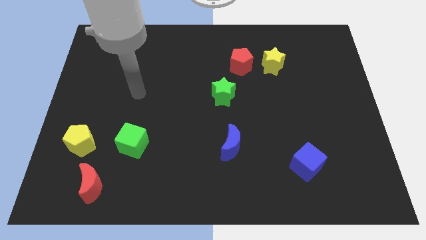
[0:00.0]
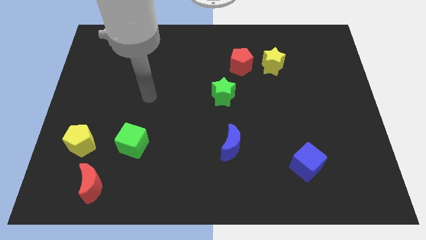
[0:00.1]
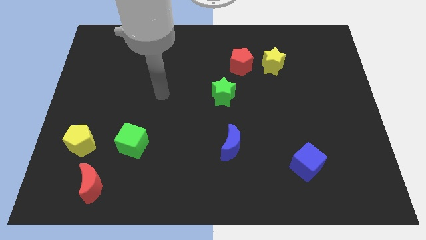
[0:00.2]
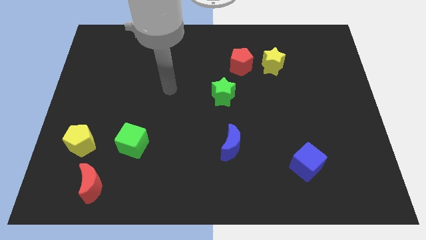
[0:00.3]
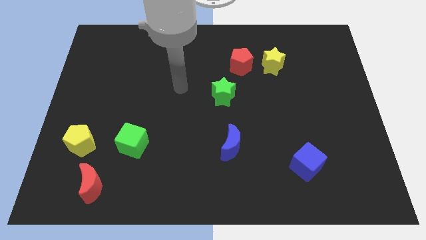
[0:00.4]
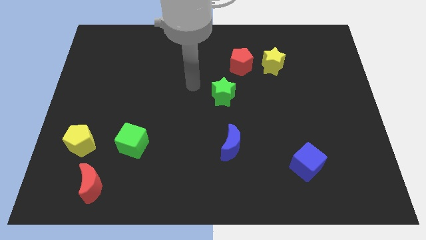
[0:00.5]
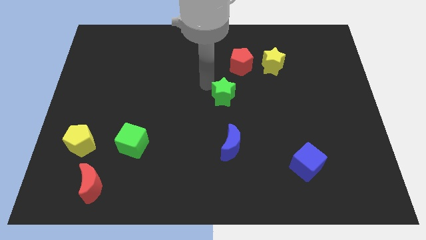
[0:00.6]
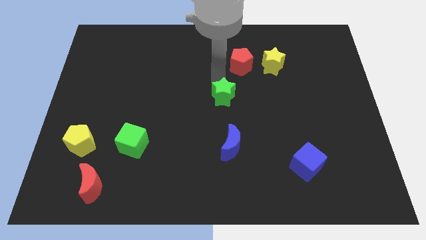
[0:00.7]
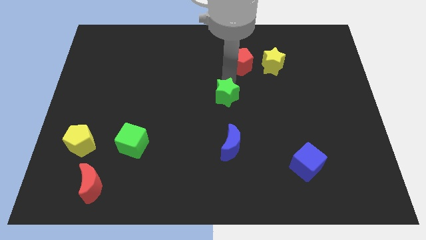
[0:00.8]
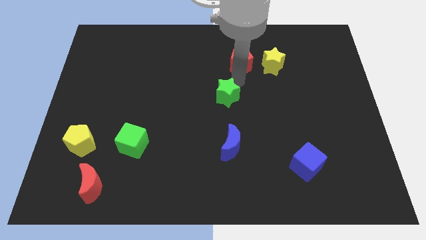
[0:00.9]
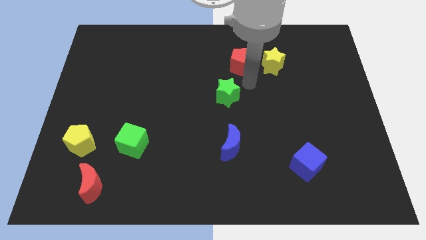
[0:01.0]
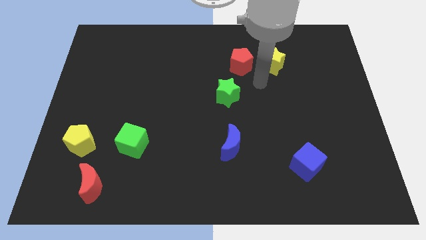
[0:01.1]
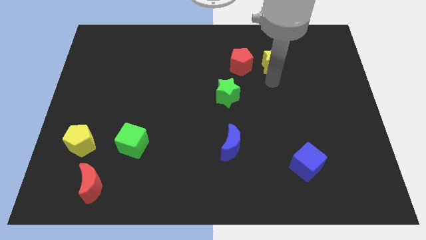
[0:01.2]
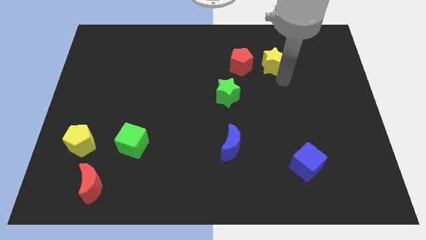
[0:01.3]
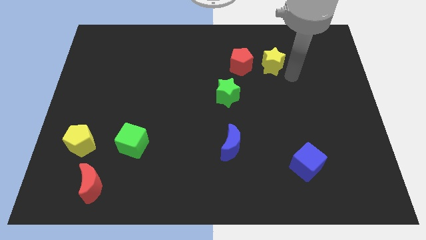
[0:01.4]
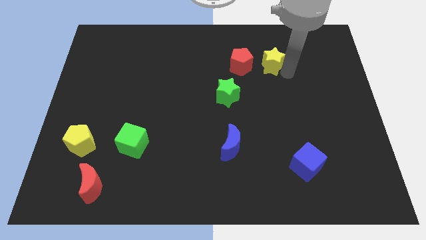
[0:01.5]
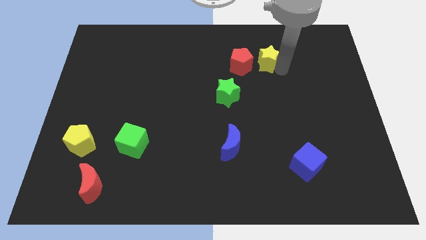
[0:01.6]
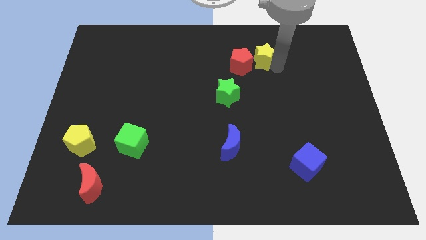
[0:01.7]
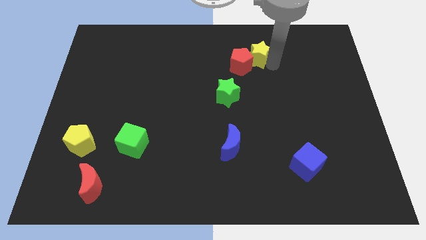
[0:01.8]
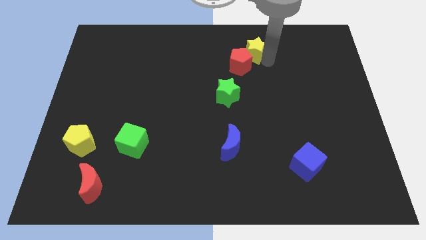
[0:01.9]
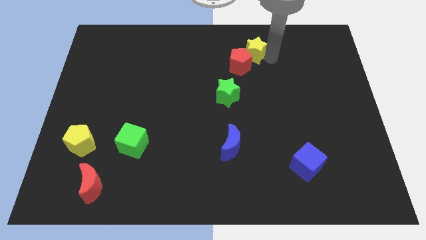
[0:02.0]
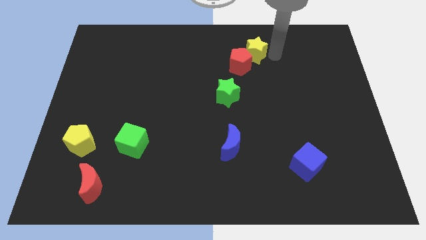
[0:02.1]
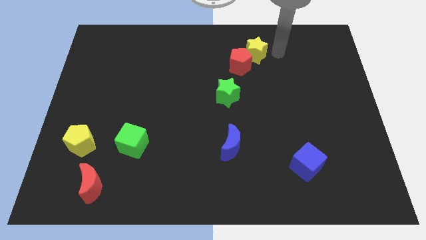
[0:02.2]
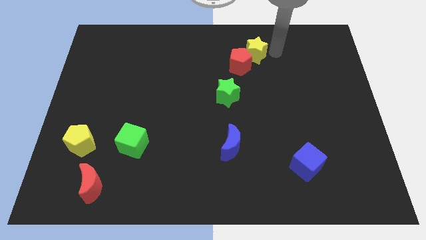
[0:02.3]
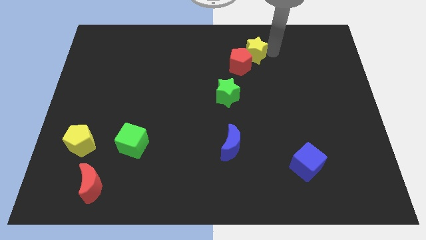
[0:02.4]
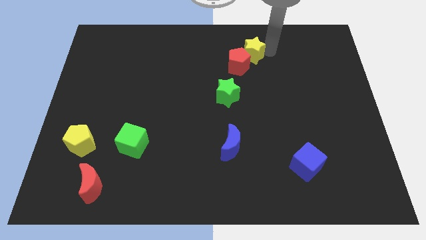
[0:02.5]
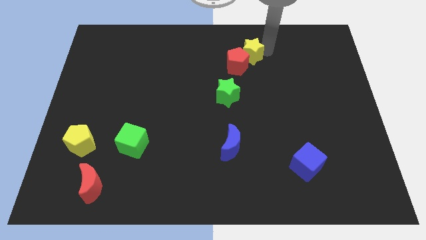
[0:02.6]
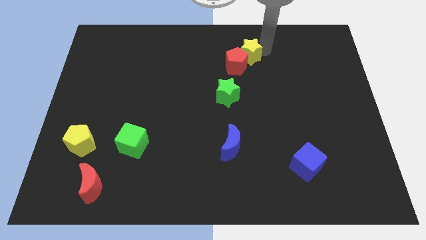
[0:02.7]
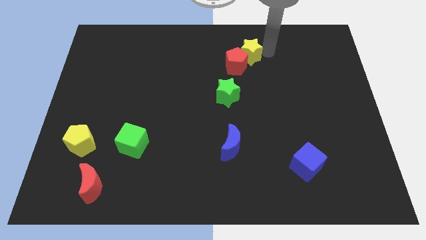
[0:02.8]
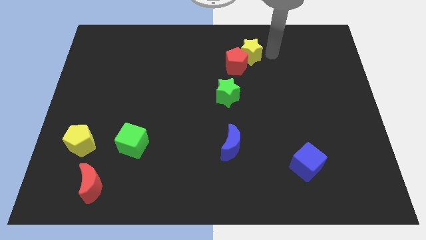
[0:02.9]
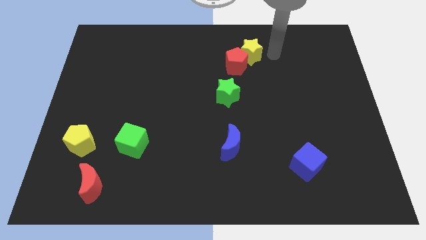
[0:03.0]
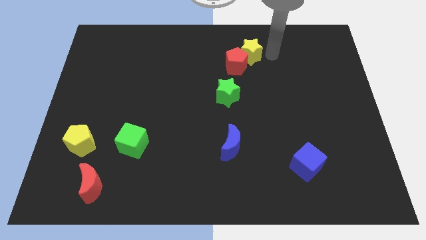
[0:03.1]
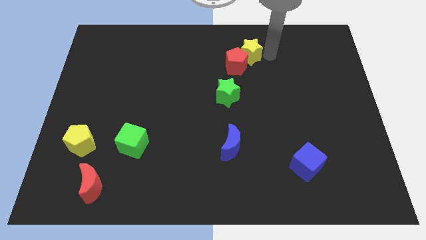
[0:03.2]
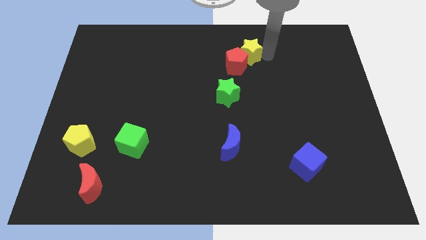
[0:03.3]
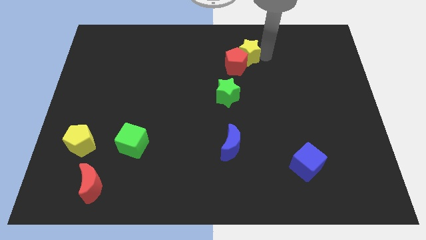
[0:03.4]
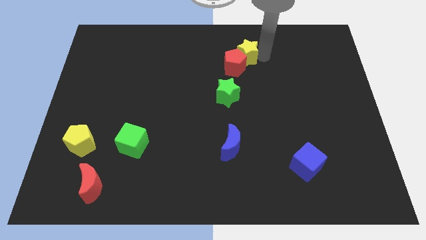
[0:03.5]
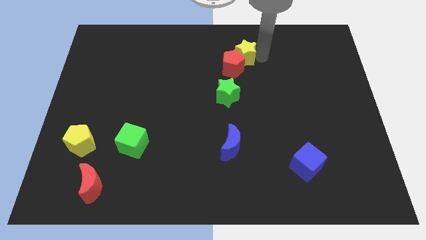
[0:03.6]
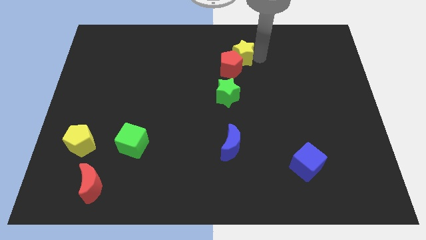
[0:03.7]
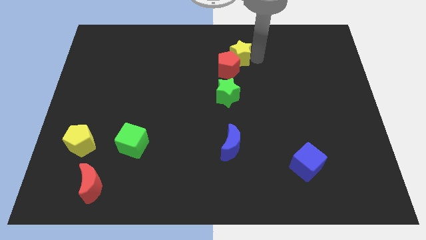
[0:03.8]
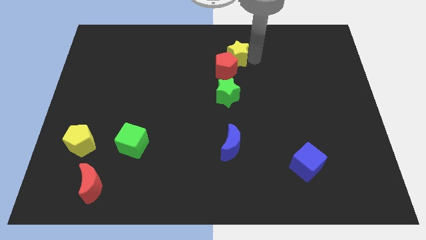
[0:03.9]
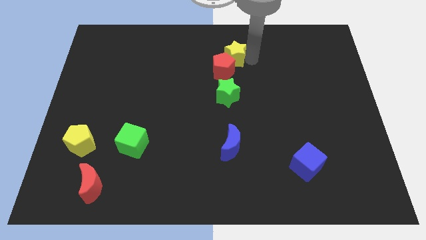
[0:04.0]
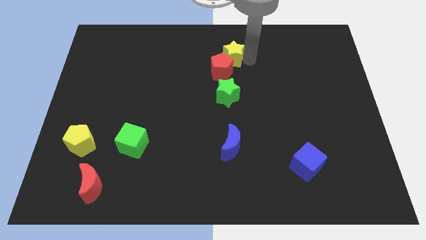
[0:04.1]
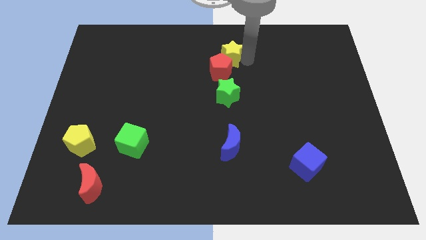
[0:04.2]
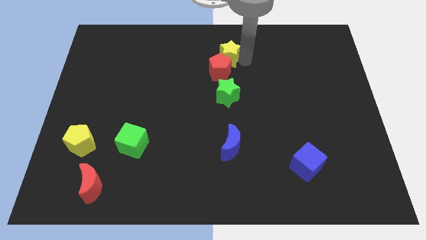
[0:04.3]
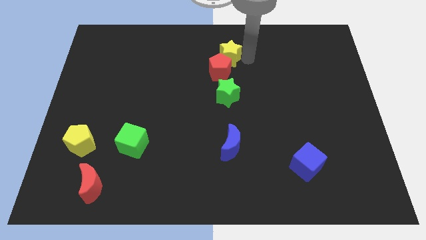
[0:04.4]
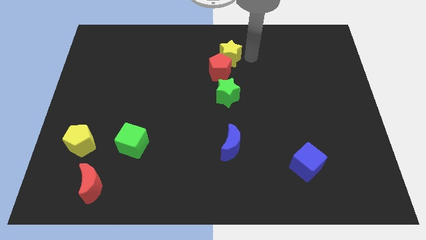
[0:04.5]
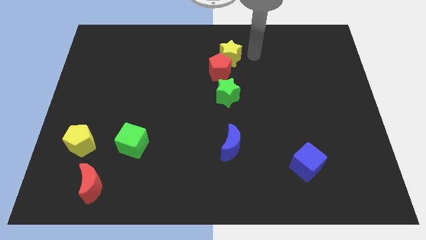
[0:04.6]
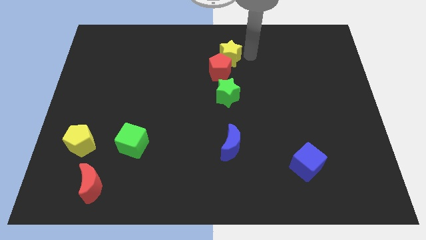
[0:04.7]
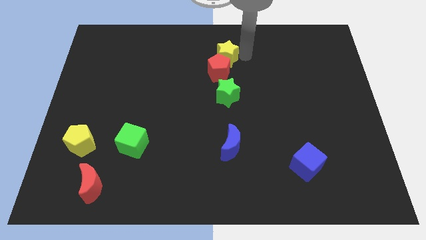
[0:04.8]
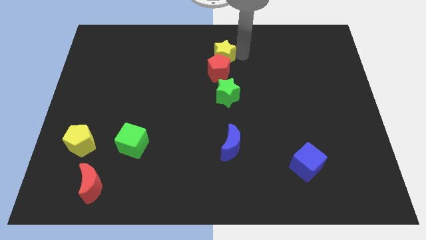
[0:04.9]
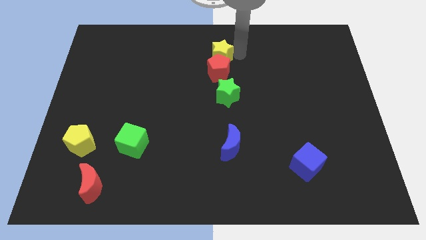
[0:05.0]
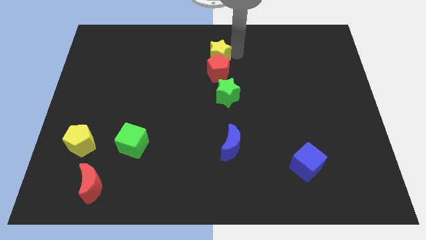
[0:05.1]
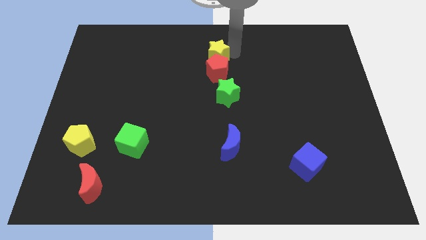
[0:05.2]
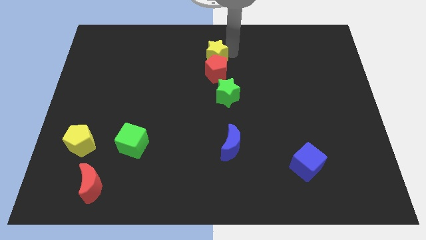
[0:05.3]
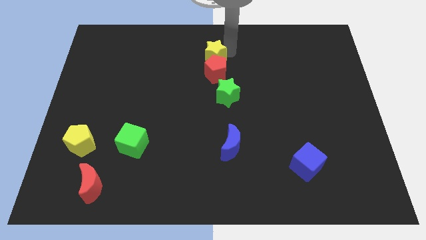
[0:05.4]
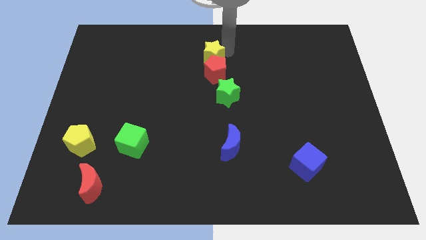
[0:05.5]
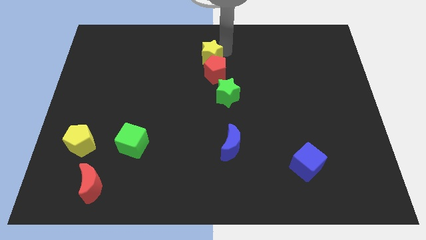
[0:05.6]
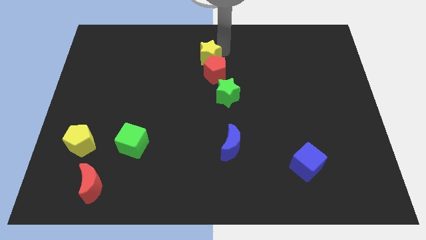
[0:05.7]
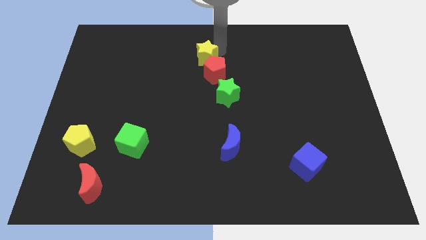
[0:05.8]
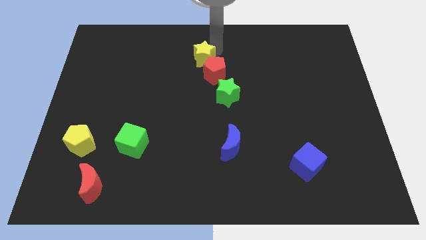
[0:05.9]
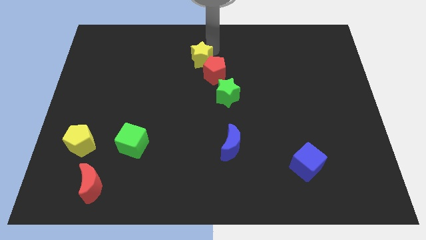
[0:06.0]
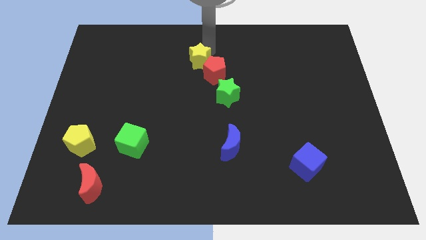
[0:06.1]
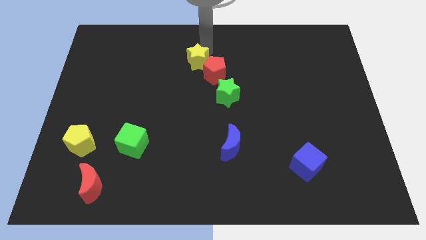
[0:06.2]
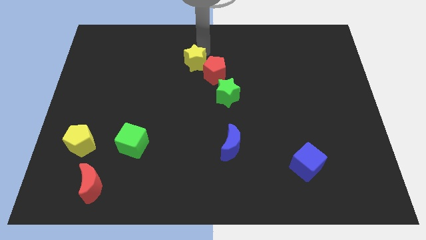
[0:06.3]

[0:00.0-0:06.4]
push the yellow star left

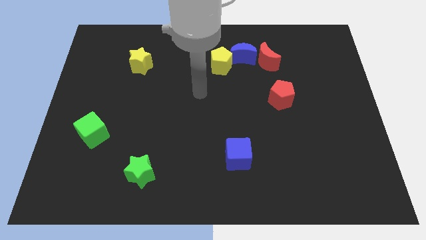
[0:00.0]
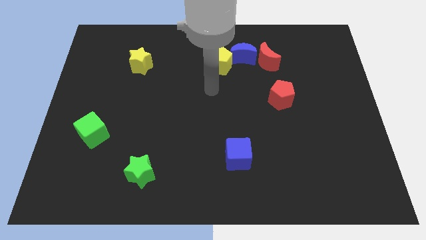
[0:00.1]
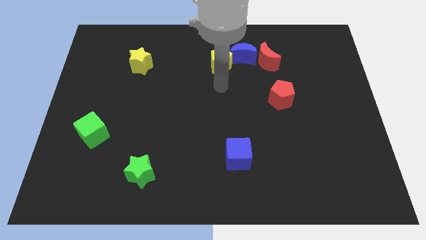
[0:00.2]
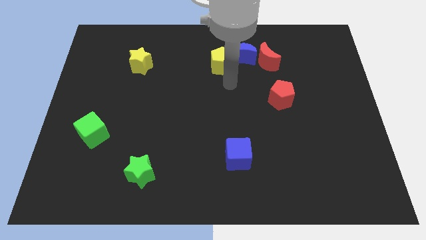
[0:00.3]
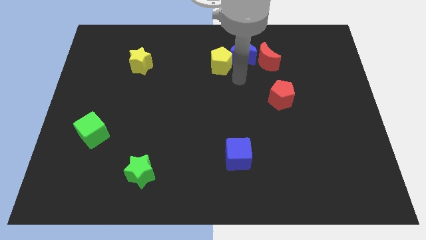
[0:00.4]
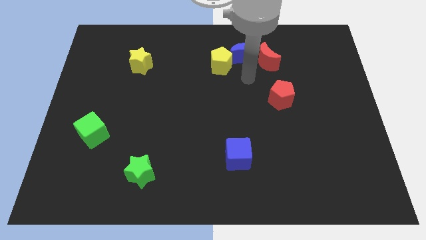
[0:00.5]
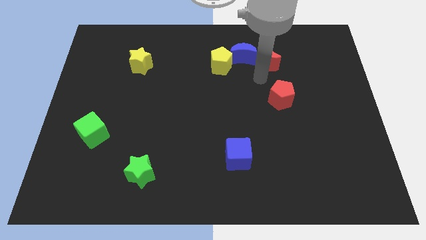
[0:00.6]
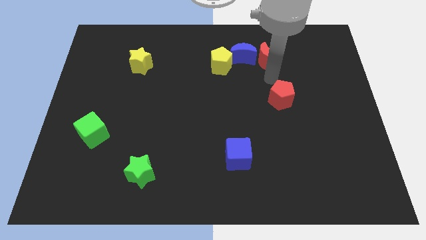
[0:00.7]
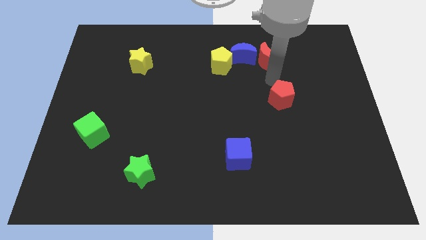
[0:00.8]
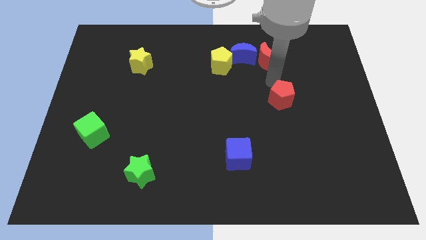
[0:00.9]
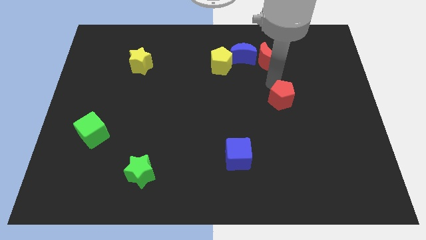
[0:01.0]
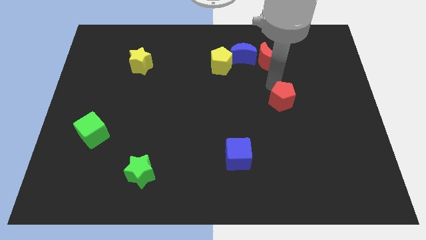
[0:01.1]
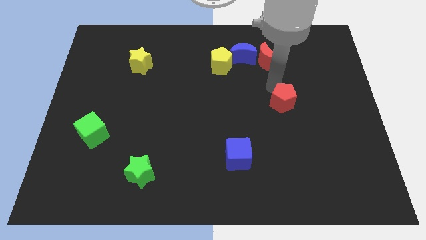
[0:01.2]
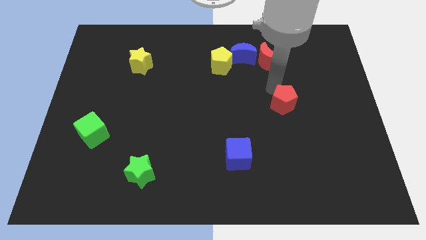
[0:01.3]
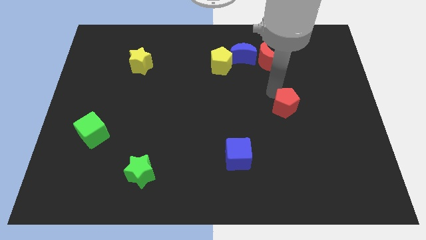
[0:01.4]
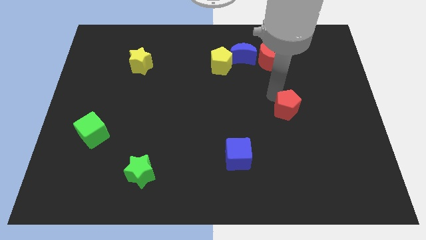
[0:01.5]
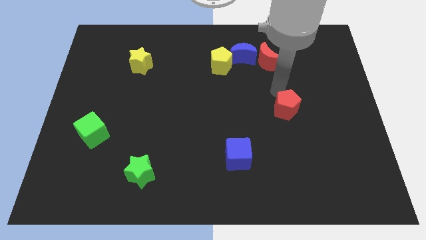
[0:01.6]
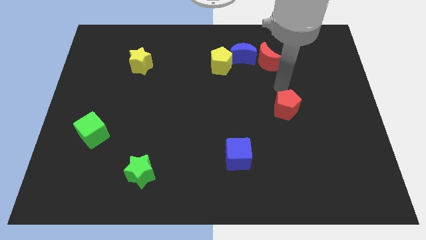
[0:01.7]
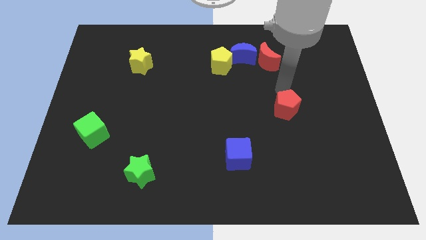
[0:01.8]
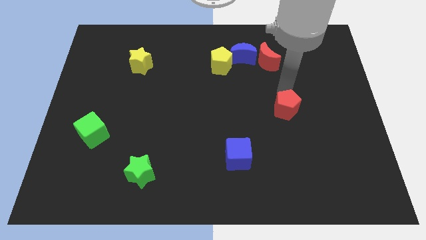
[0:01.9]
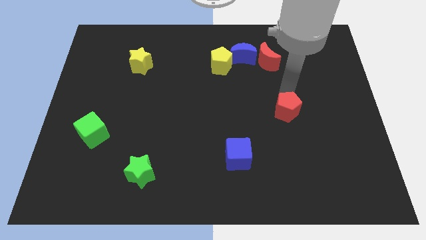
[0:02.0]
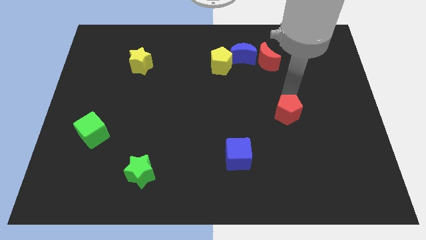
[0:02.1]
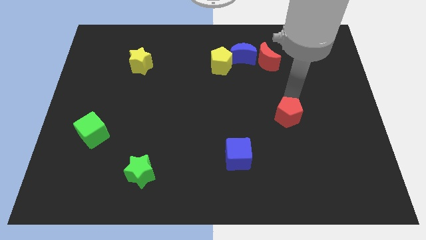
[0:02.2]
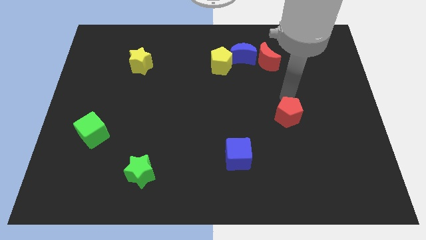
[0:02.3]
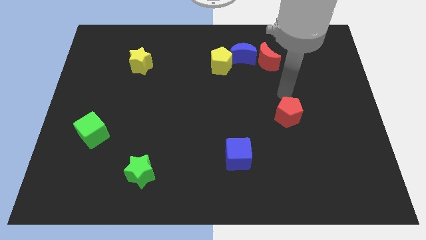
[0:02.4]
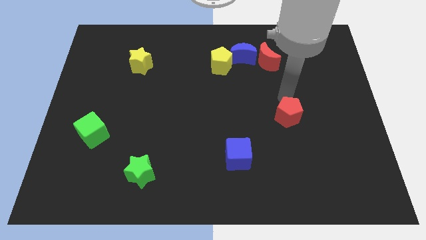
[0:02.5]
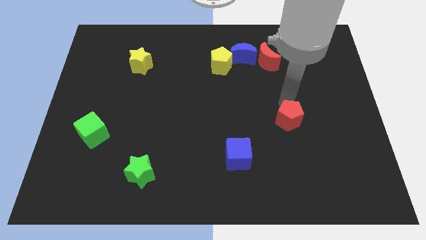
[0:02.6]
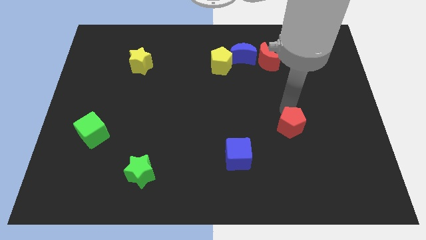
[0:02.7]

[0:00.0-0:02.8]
slide the red pentagon down a bit
